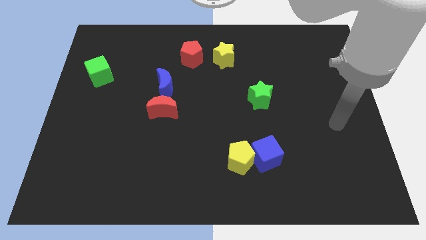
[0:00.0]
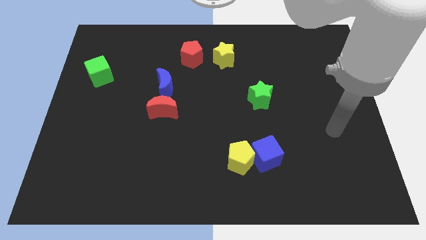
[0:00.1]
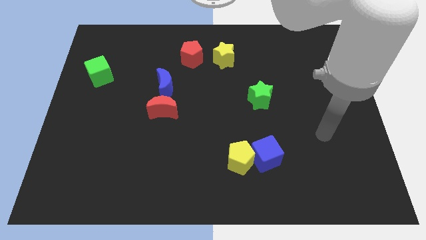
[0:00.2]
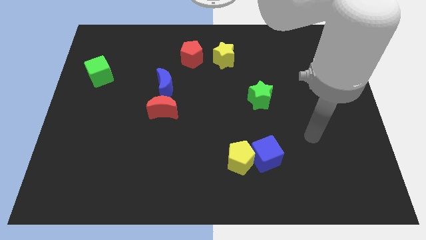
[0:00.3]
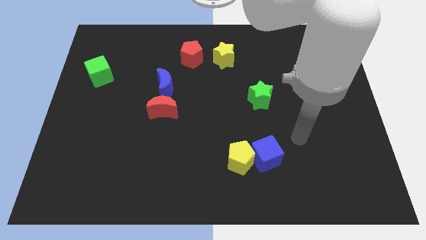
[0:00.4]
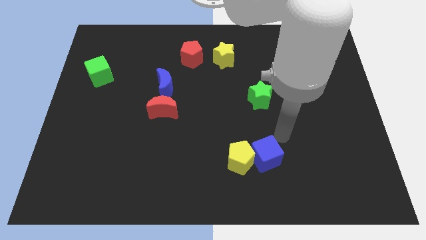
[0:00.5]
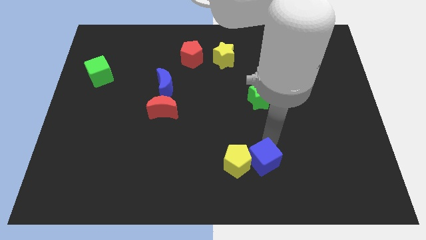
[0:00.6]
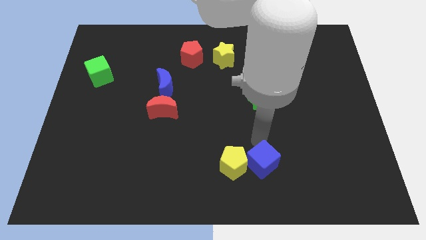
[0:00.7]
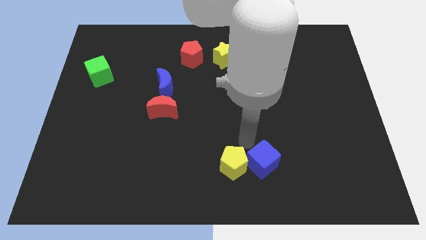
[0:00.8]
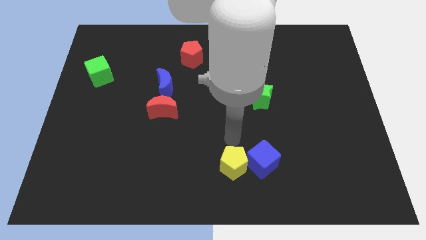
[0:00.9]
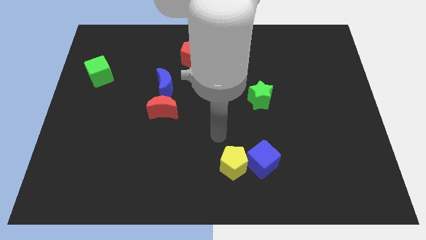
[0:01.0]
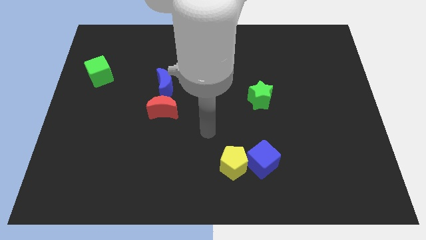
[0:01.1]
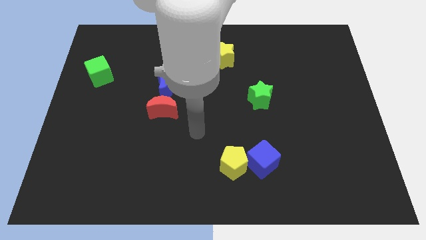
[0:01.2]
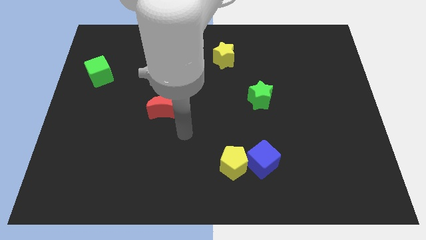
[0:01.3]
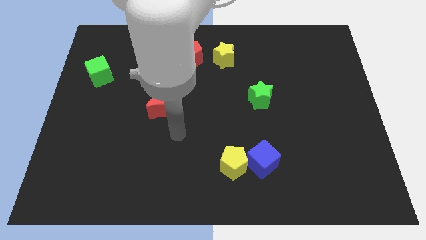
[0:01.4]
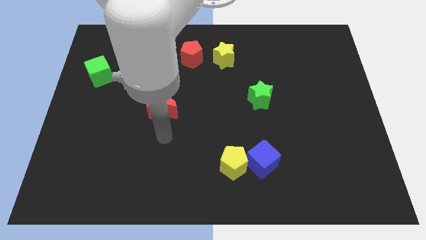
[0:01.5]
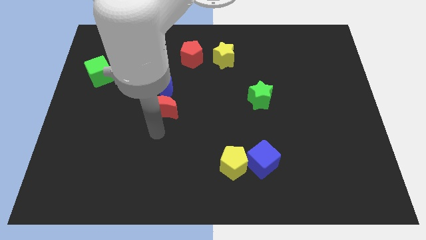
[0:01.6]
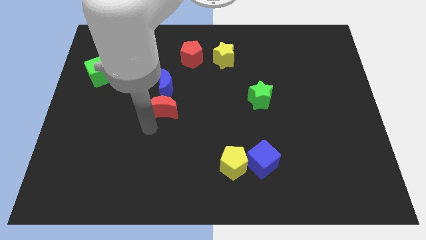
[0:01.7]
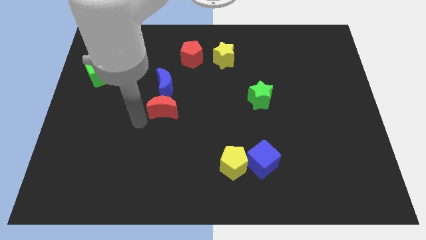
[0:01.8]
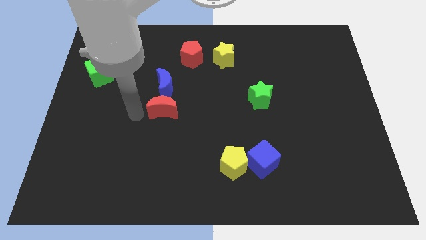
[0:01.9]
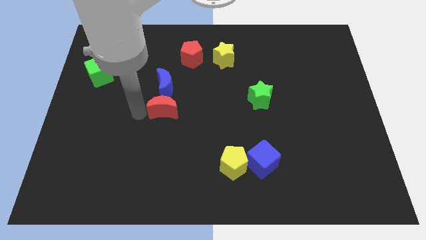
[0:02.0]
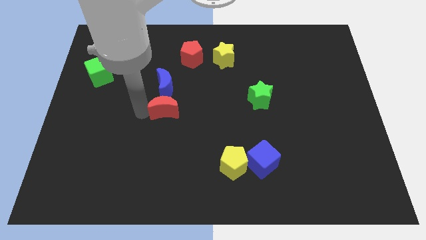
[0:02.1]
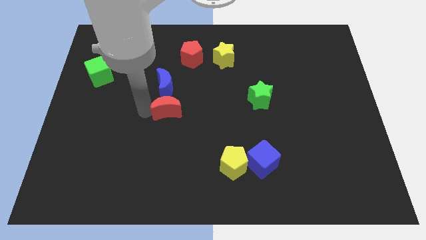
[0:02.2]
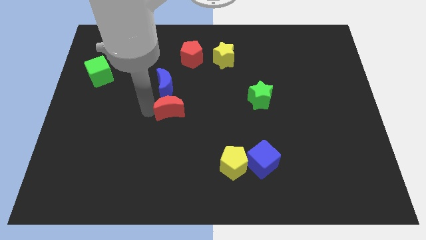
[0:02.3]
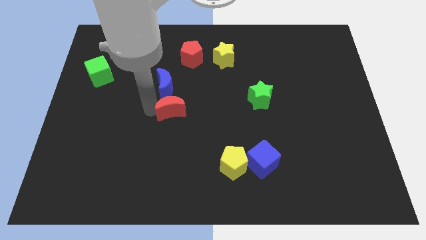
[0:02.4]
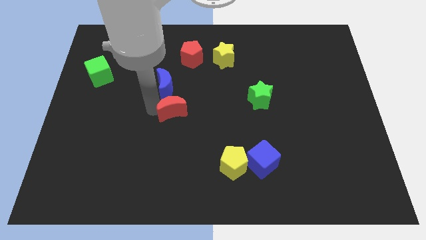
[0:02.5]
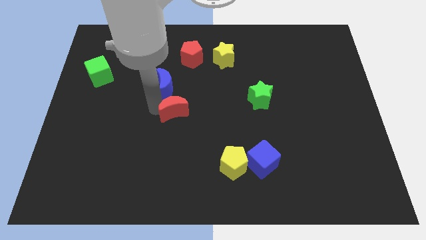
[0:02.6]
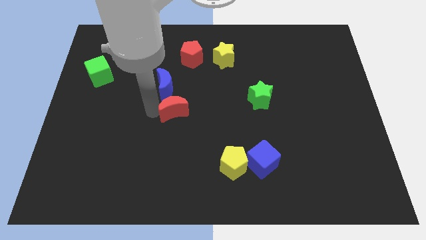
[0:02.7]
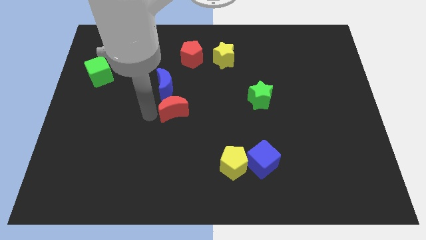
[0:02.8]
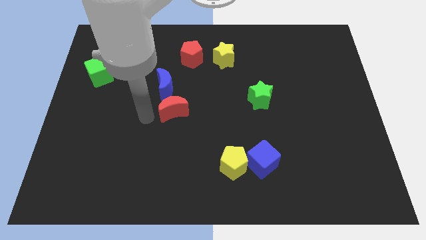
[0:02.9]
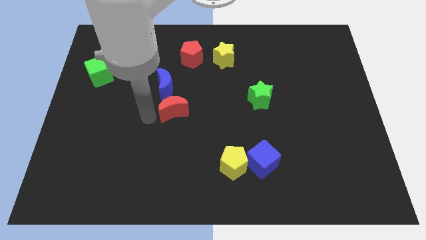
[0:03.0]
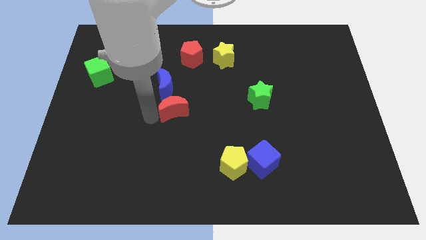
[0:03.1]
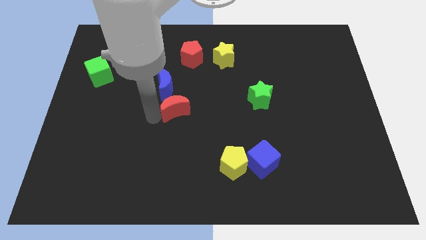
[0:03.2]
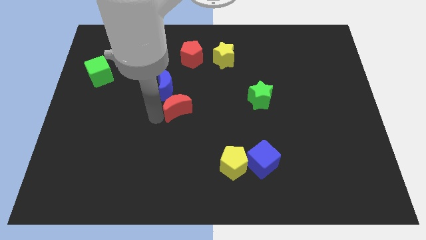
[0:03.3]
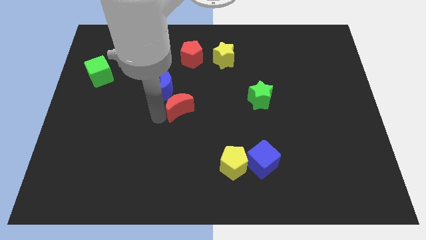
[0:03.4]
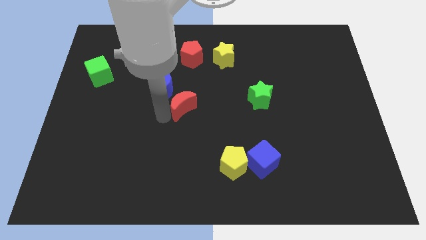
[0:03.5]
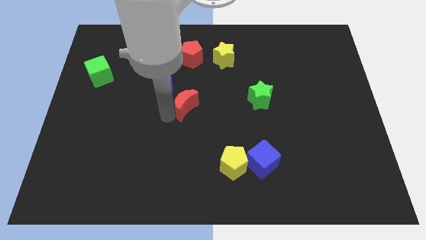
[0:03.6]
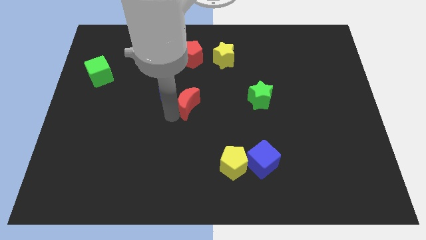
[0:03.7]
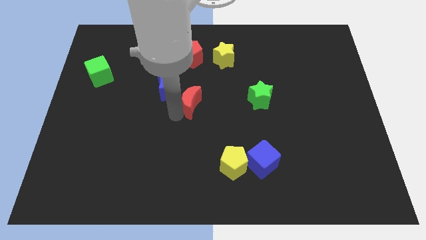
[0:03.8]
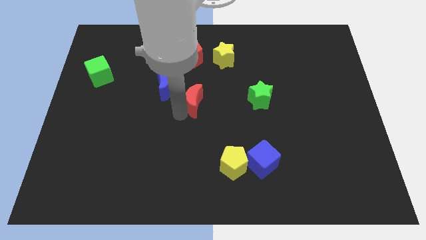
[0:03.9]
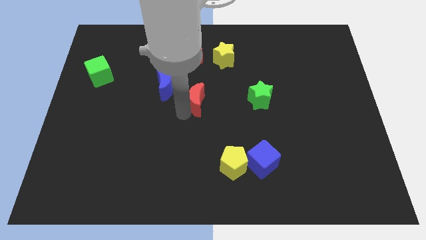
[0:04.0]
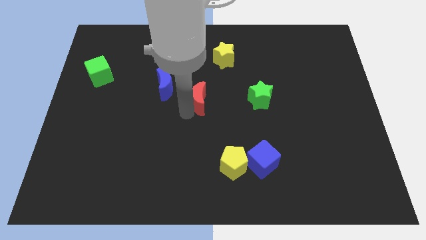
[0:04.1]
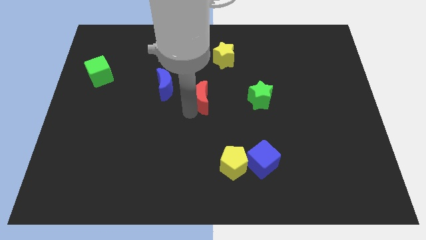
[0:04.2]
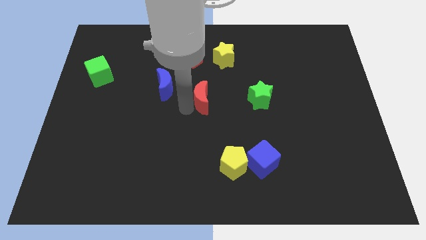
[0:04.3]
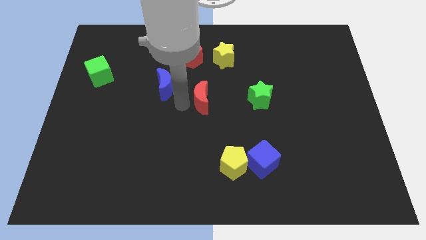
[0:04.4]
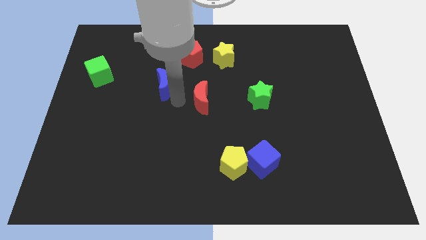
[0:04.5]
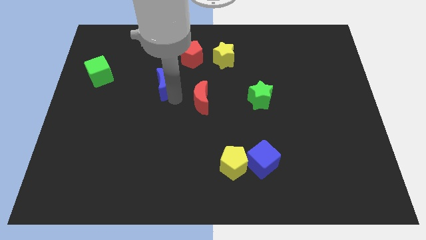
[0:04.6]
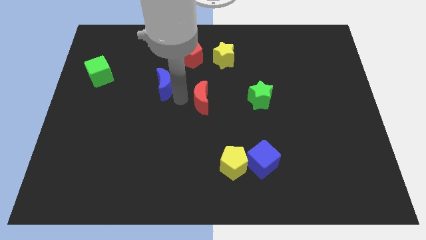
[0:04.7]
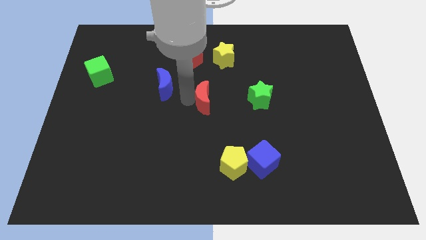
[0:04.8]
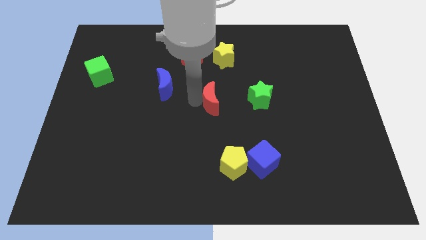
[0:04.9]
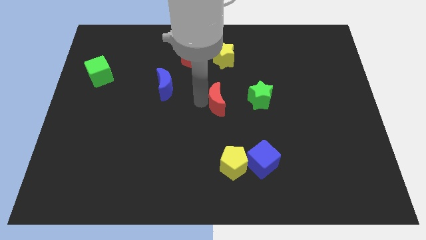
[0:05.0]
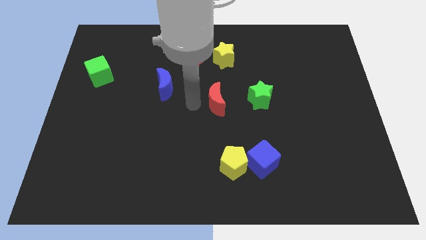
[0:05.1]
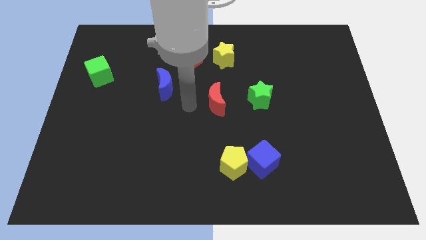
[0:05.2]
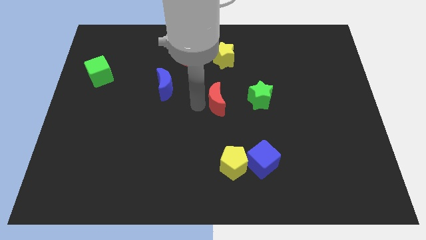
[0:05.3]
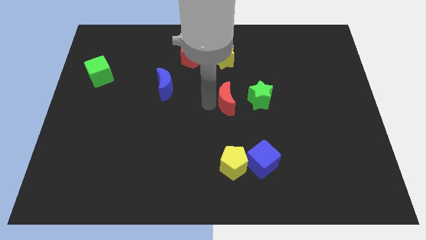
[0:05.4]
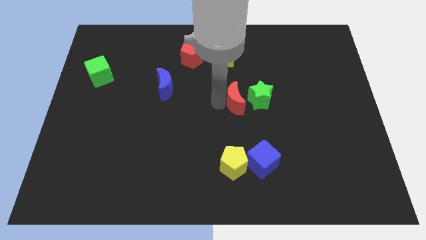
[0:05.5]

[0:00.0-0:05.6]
move the red moon to the green star

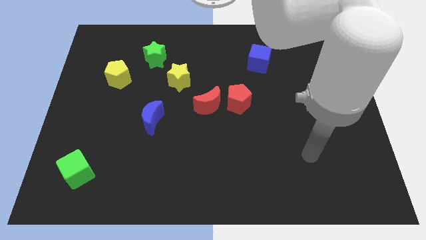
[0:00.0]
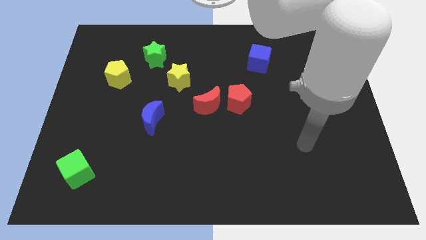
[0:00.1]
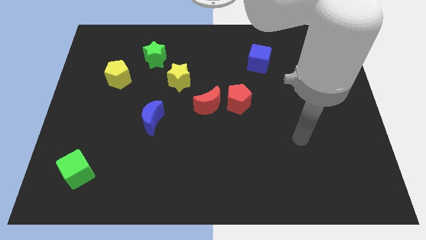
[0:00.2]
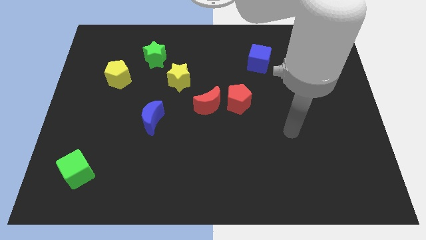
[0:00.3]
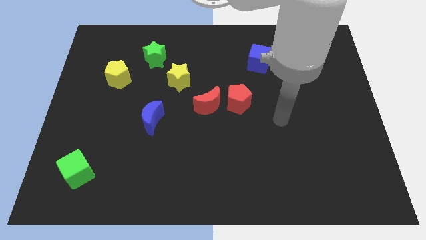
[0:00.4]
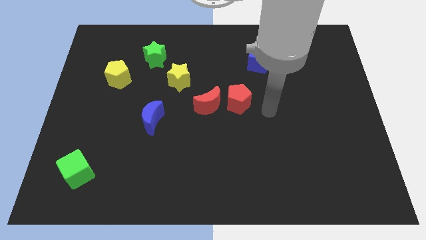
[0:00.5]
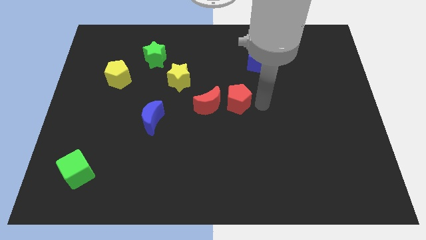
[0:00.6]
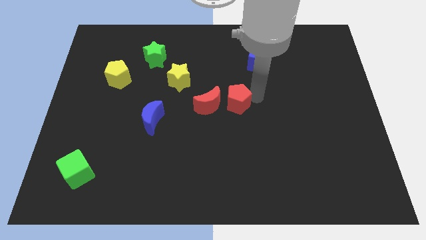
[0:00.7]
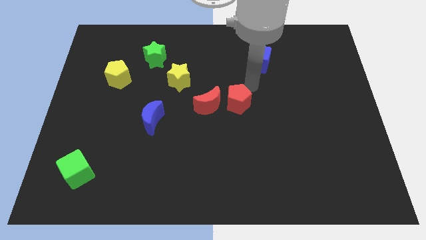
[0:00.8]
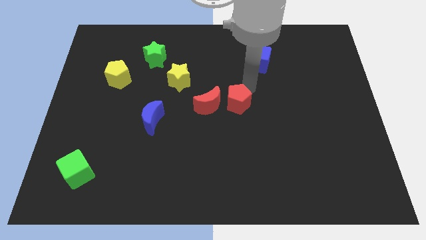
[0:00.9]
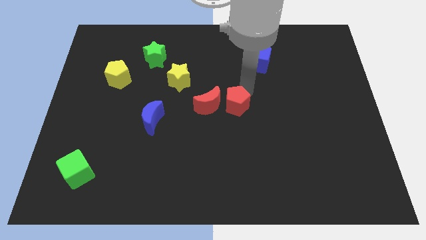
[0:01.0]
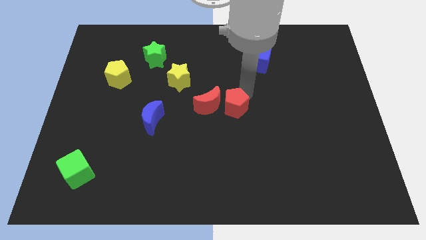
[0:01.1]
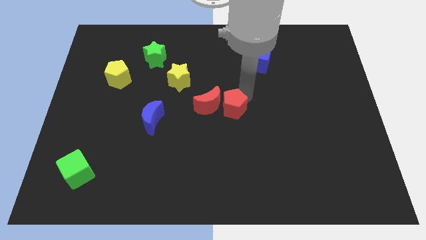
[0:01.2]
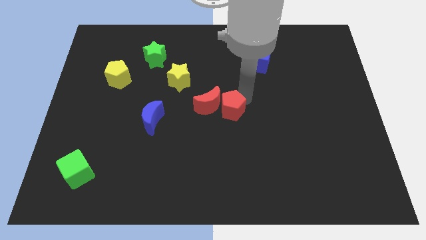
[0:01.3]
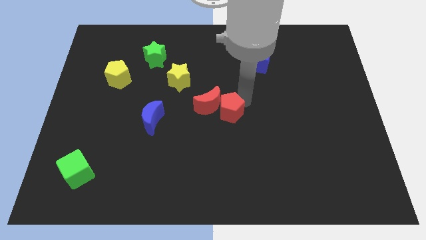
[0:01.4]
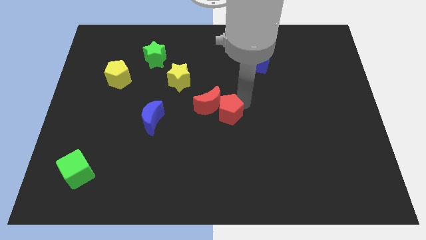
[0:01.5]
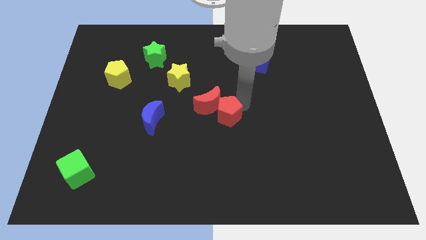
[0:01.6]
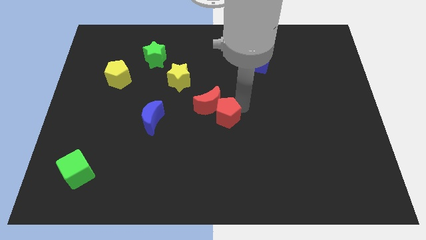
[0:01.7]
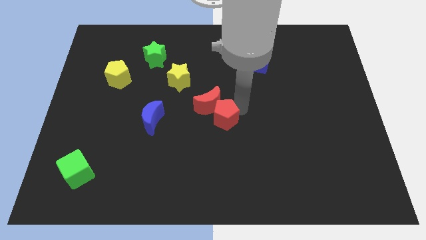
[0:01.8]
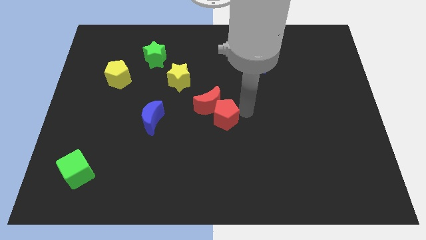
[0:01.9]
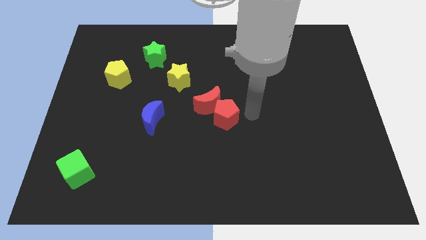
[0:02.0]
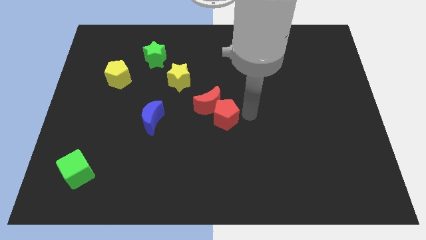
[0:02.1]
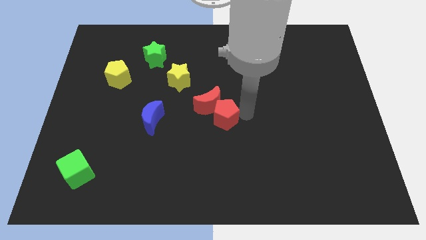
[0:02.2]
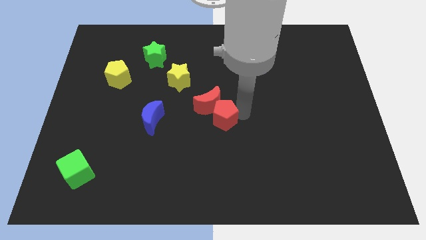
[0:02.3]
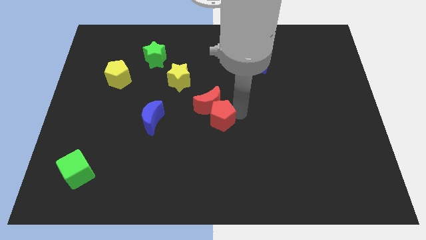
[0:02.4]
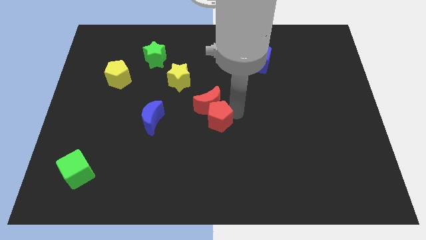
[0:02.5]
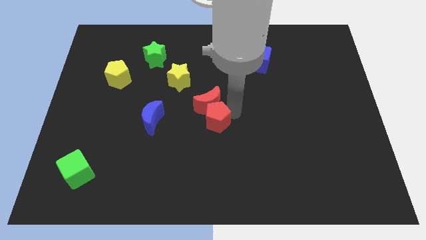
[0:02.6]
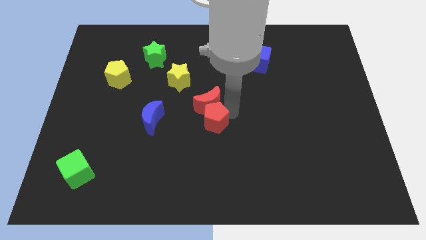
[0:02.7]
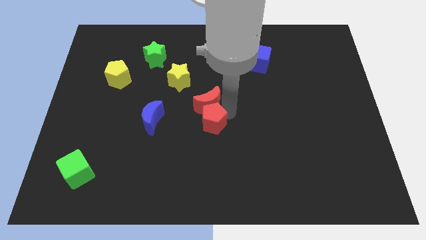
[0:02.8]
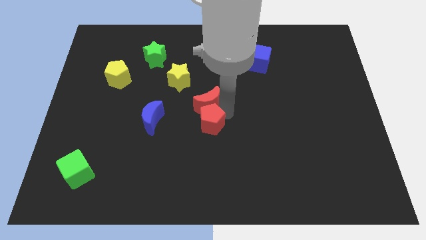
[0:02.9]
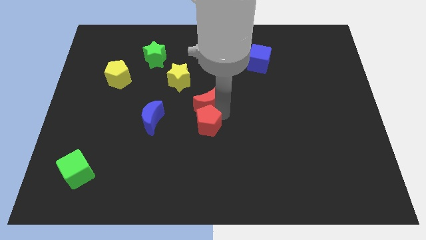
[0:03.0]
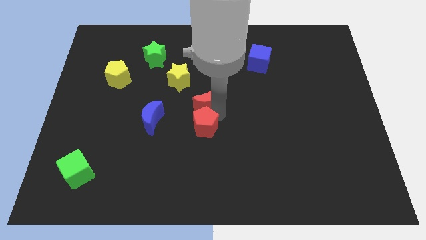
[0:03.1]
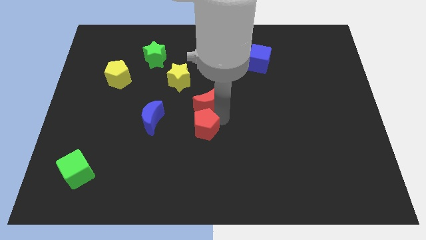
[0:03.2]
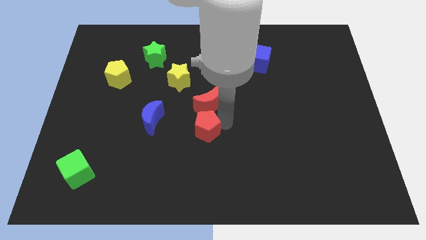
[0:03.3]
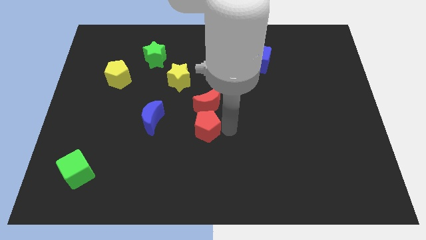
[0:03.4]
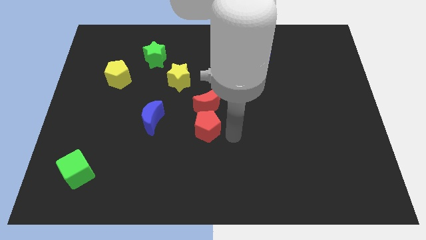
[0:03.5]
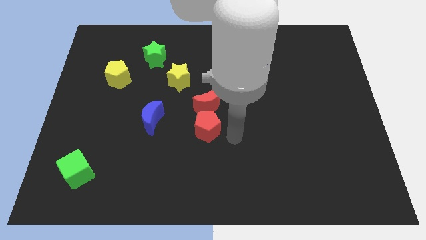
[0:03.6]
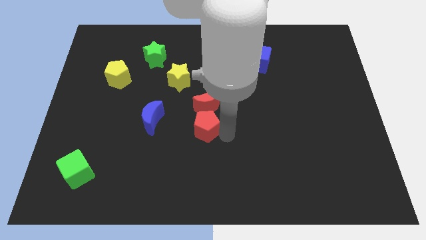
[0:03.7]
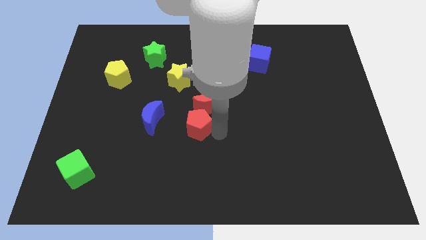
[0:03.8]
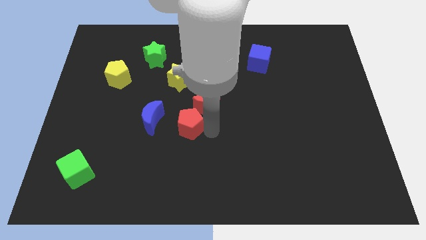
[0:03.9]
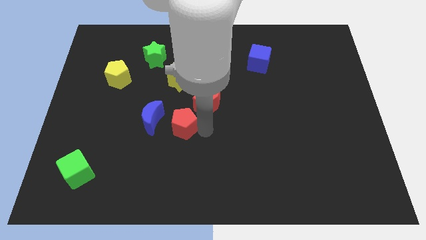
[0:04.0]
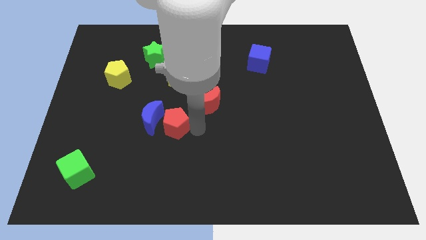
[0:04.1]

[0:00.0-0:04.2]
move the red pentagon to the blue moon
